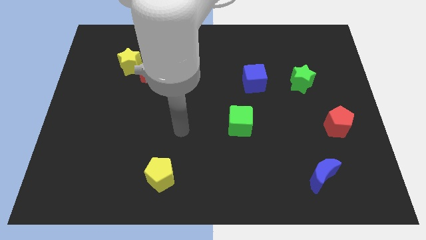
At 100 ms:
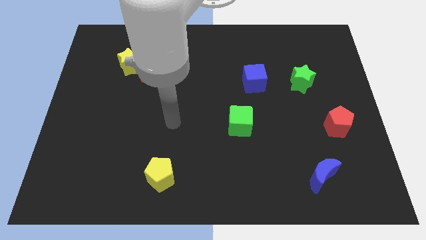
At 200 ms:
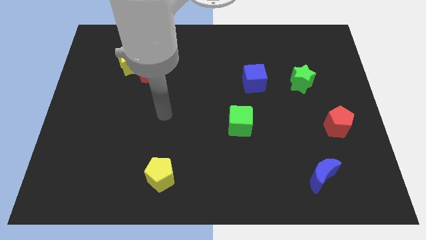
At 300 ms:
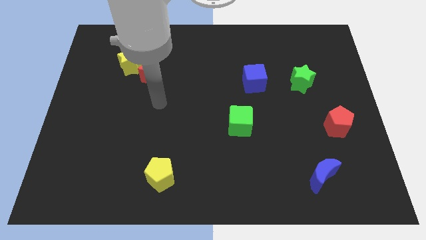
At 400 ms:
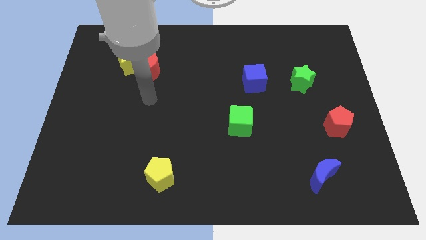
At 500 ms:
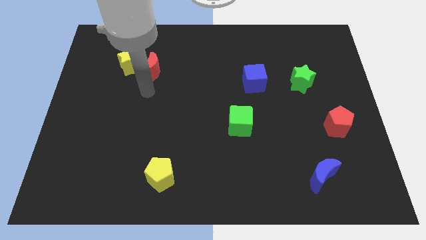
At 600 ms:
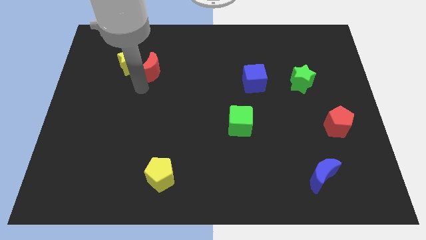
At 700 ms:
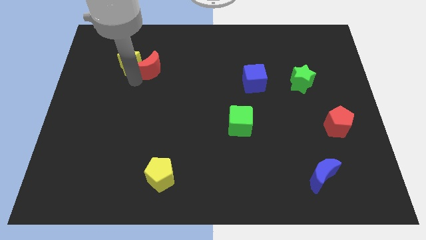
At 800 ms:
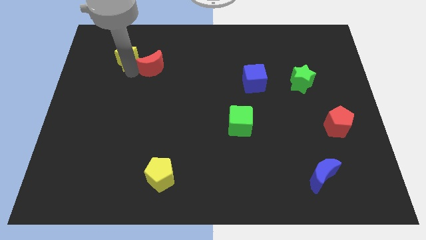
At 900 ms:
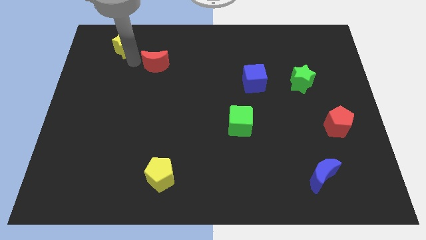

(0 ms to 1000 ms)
separate the red moon from the yellow star

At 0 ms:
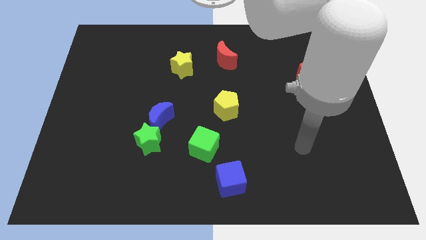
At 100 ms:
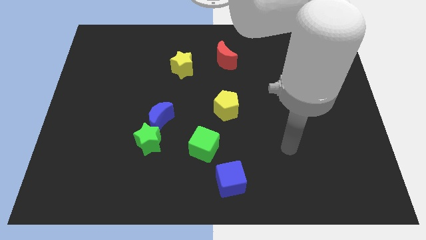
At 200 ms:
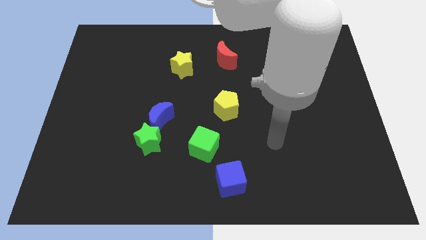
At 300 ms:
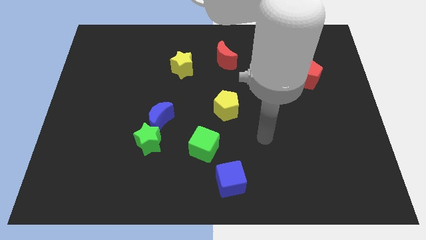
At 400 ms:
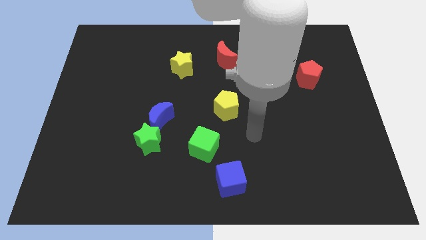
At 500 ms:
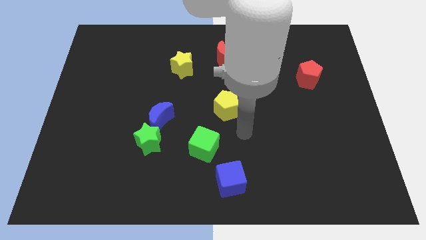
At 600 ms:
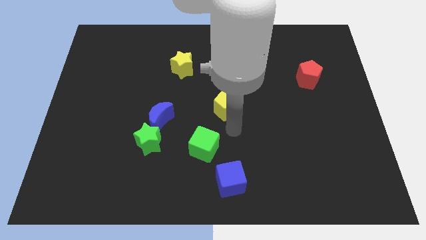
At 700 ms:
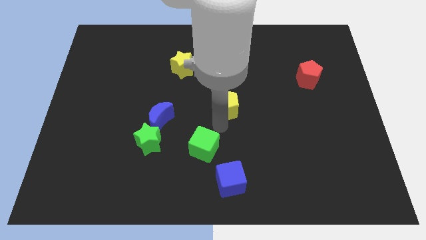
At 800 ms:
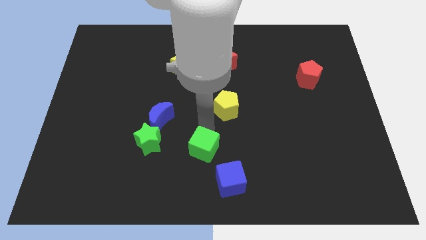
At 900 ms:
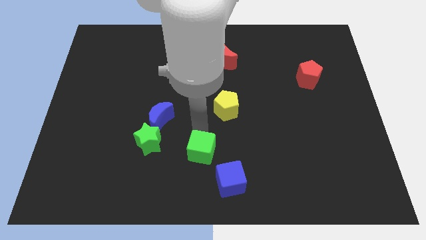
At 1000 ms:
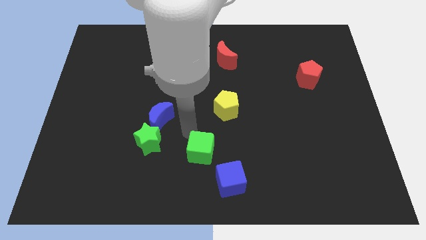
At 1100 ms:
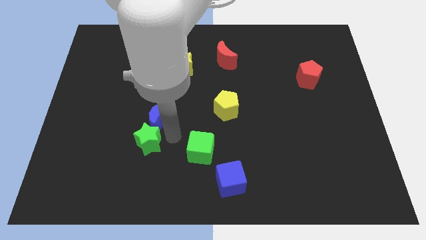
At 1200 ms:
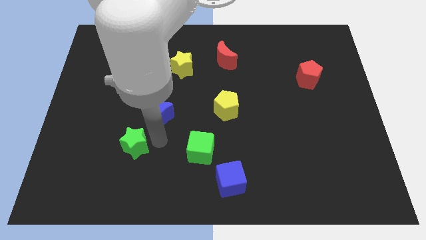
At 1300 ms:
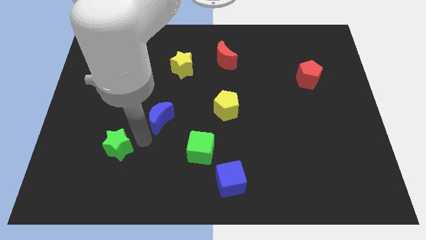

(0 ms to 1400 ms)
pull the blue moon apart from the green star

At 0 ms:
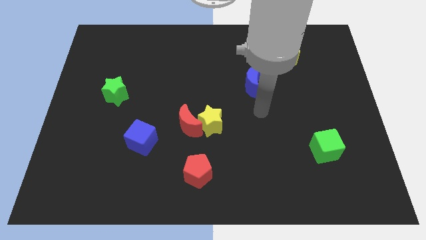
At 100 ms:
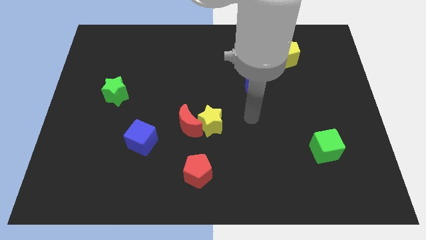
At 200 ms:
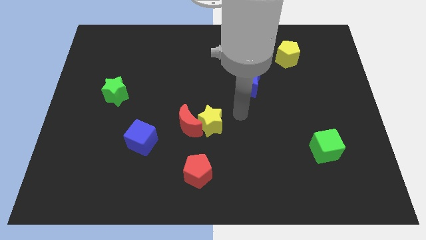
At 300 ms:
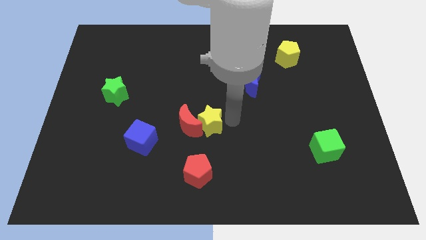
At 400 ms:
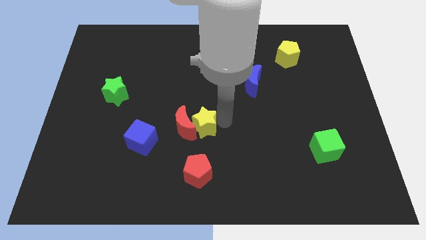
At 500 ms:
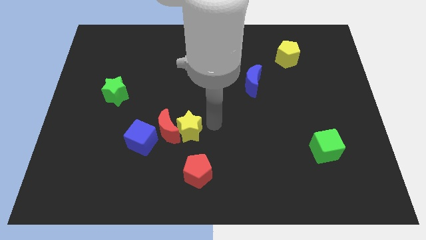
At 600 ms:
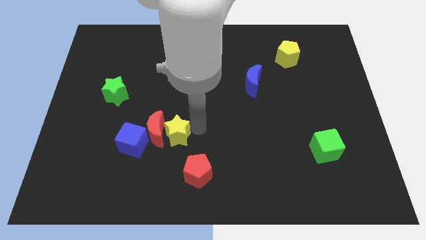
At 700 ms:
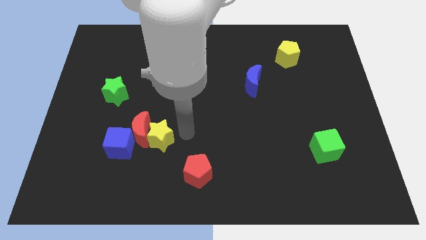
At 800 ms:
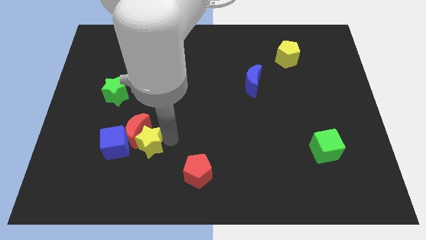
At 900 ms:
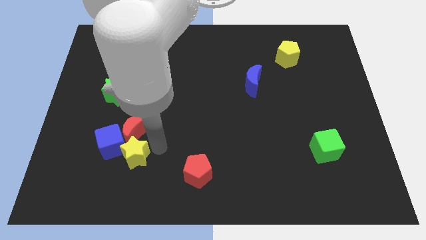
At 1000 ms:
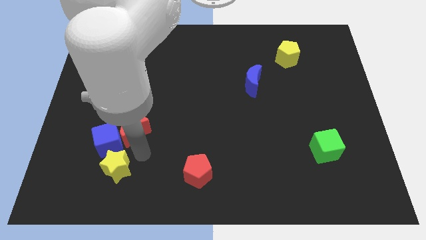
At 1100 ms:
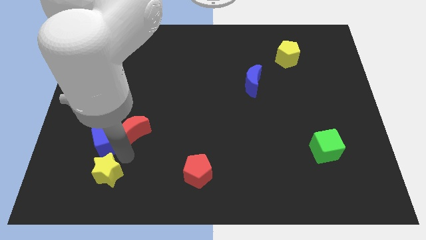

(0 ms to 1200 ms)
pull the red moon apart from the yellow star

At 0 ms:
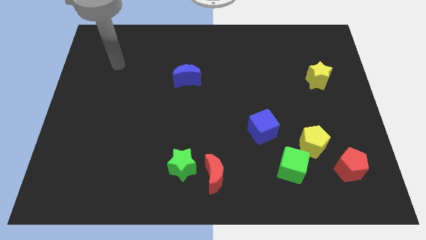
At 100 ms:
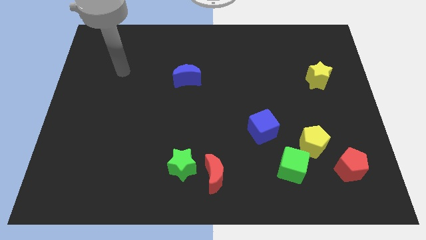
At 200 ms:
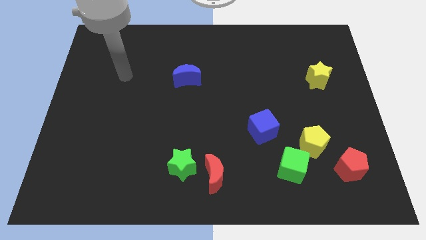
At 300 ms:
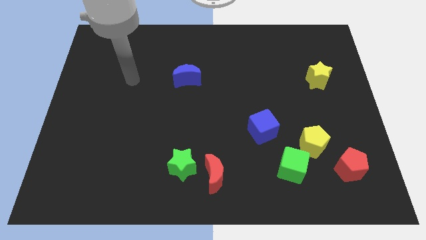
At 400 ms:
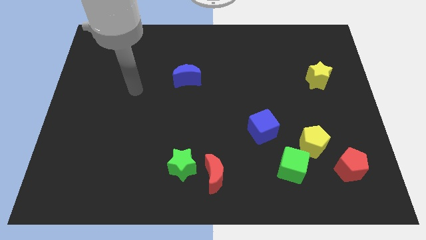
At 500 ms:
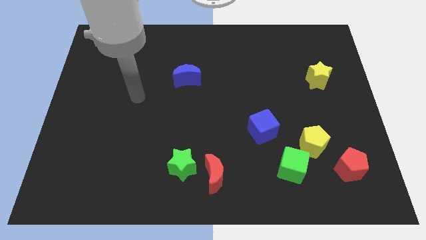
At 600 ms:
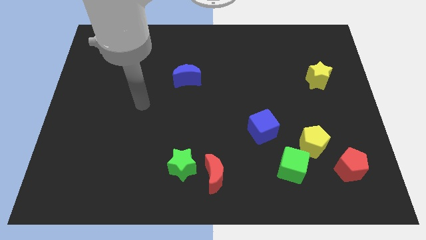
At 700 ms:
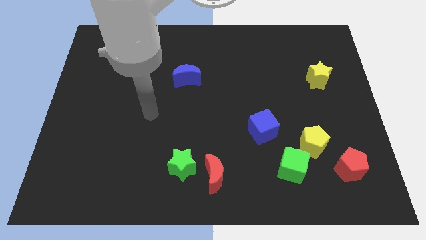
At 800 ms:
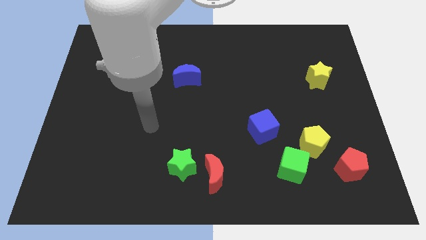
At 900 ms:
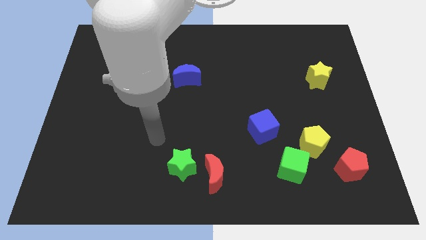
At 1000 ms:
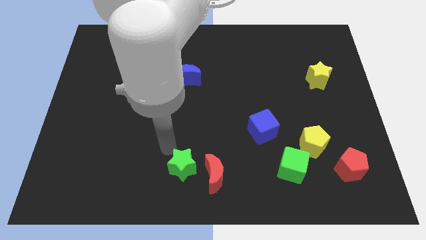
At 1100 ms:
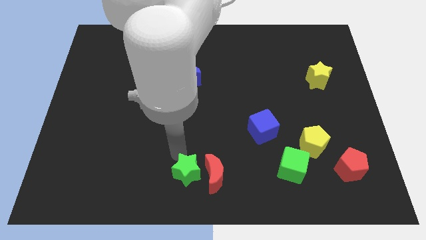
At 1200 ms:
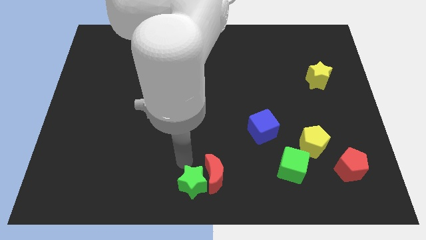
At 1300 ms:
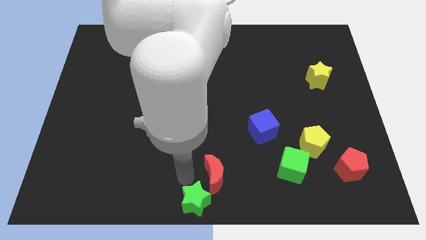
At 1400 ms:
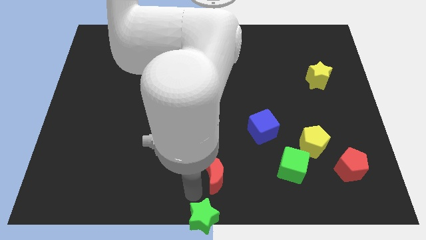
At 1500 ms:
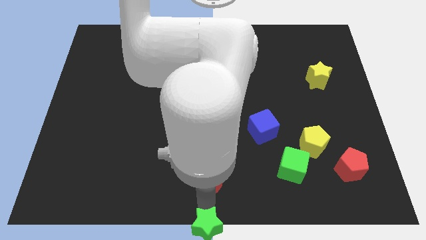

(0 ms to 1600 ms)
move the red moon away from the green star

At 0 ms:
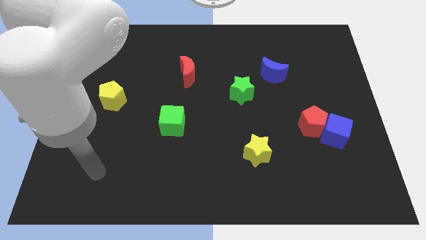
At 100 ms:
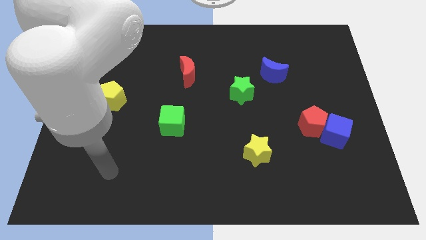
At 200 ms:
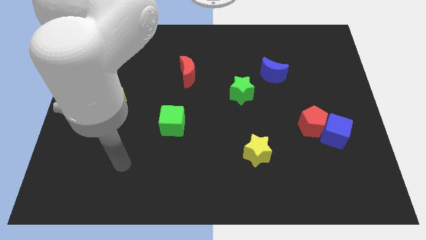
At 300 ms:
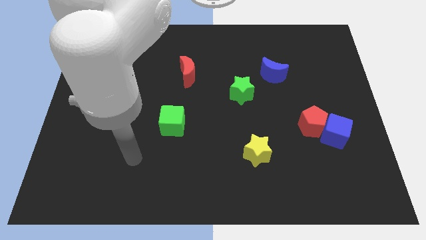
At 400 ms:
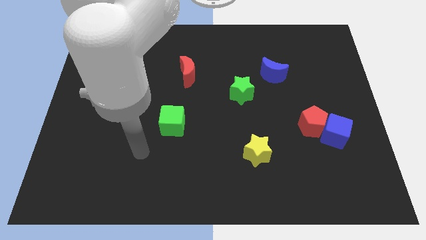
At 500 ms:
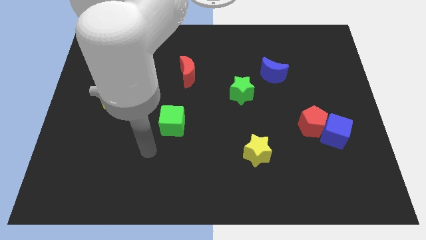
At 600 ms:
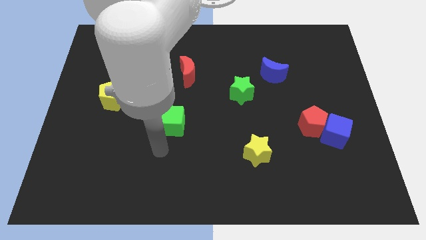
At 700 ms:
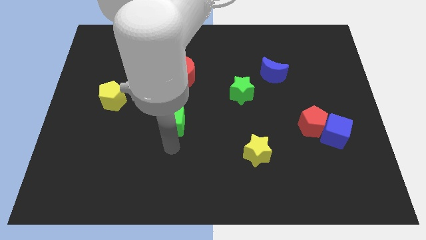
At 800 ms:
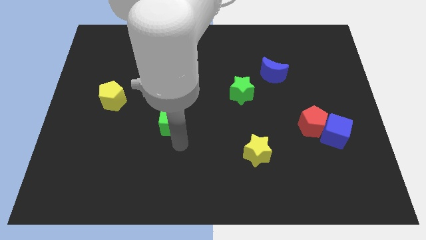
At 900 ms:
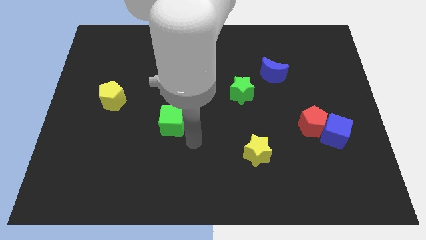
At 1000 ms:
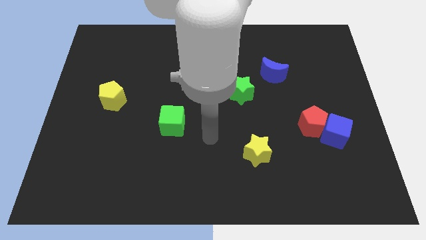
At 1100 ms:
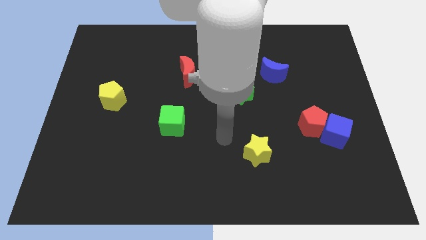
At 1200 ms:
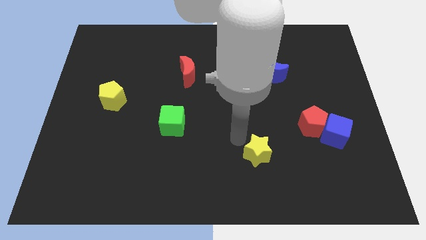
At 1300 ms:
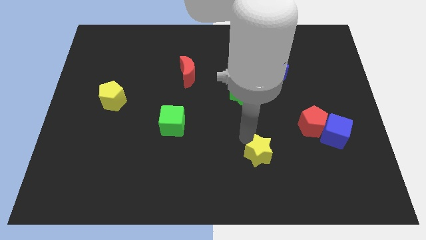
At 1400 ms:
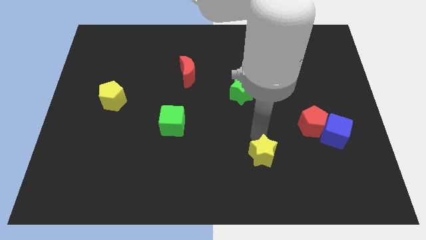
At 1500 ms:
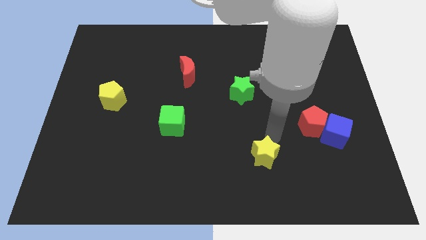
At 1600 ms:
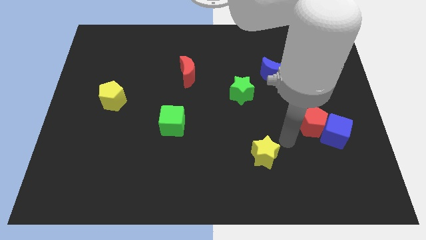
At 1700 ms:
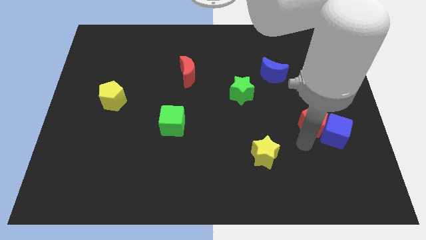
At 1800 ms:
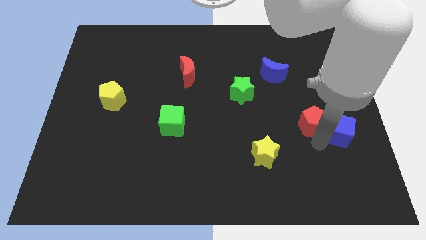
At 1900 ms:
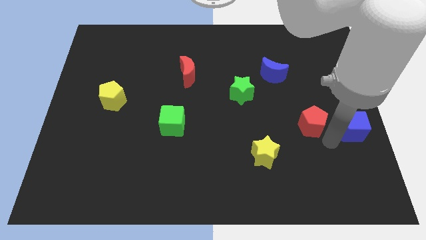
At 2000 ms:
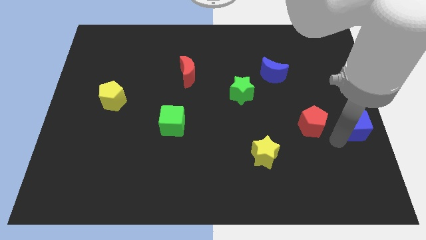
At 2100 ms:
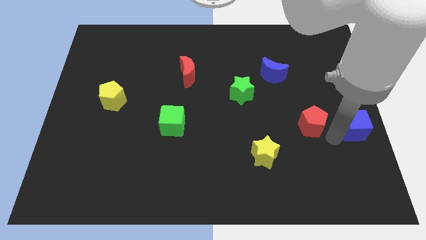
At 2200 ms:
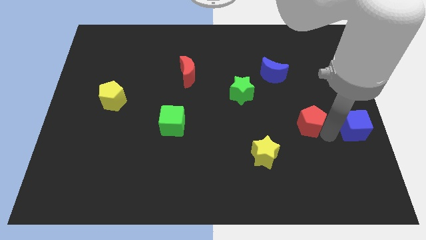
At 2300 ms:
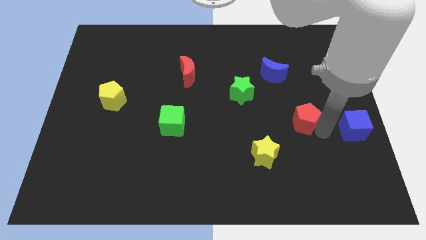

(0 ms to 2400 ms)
move the red pentagon away from the blue cube

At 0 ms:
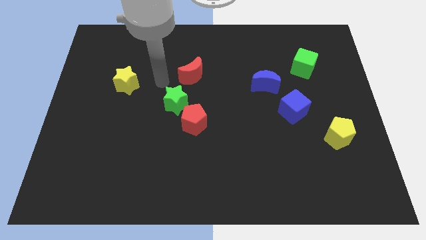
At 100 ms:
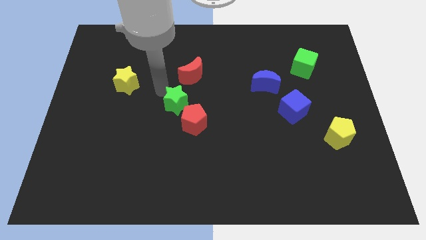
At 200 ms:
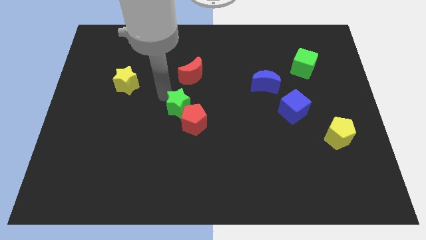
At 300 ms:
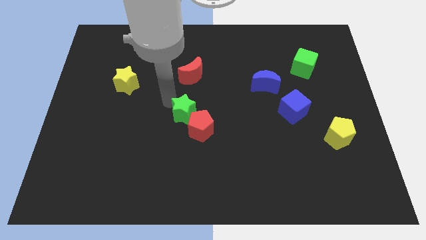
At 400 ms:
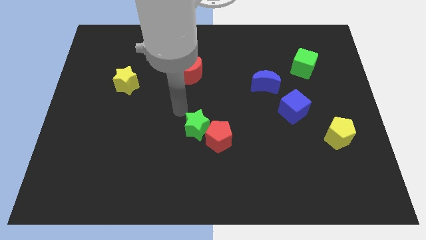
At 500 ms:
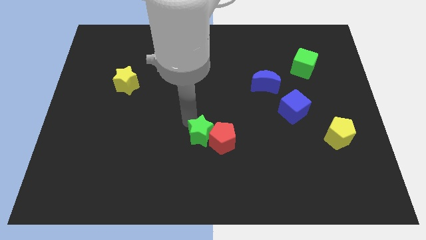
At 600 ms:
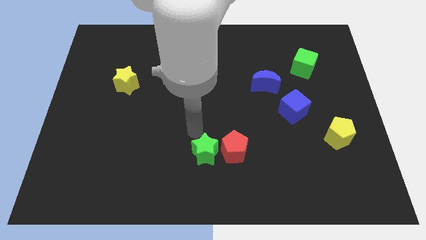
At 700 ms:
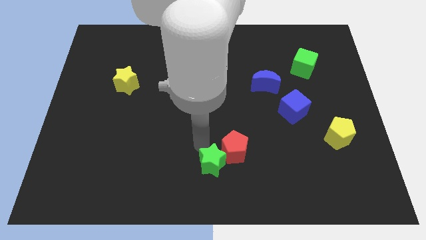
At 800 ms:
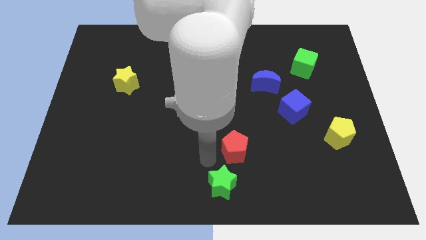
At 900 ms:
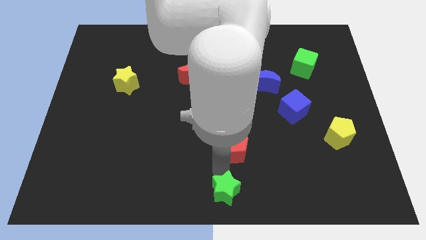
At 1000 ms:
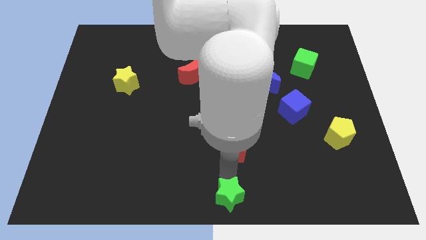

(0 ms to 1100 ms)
pull the red pentagon apart from the green star

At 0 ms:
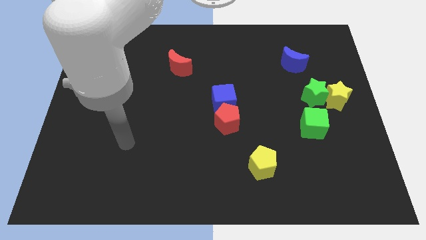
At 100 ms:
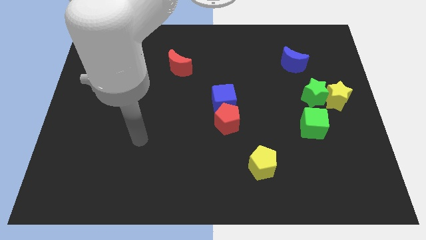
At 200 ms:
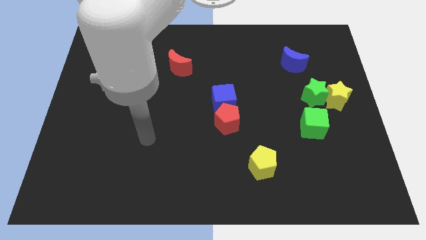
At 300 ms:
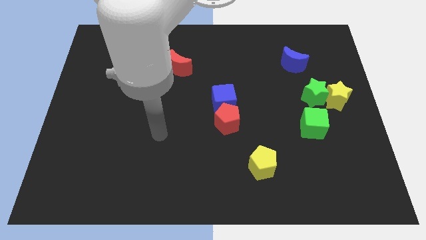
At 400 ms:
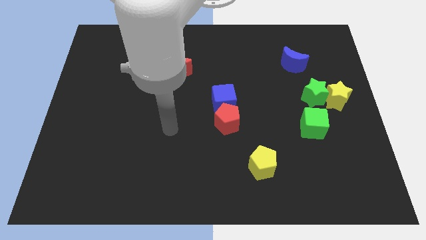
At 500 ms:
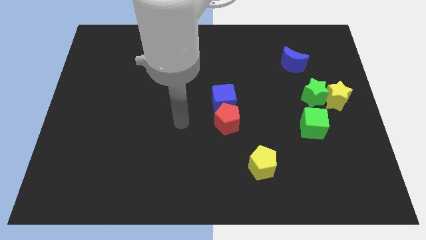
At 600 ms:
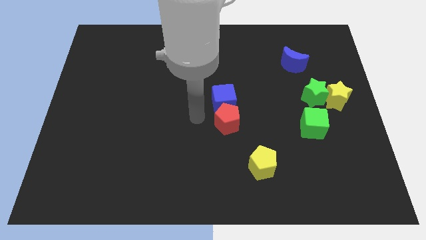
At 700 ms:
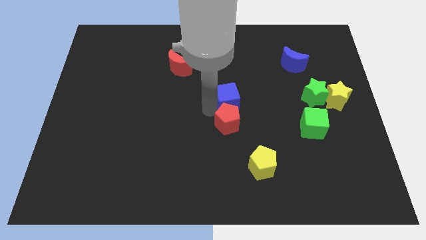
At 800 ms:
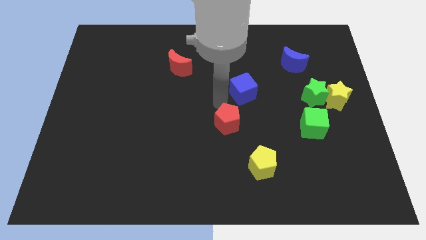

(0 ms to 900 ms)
separate the red pentagon from the blue cube
